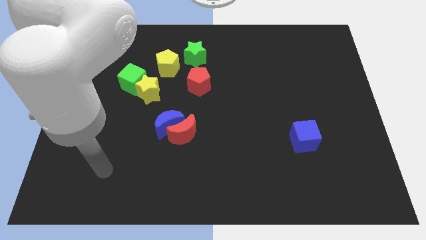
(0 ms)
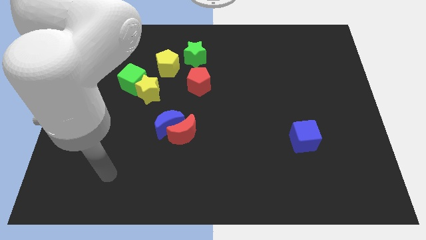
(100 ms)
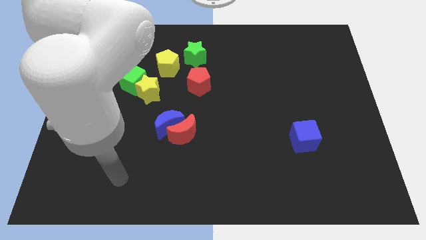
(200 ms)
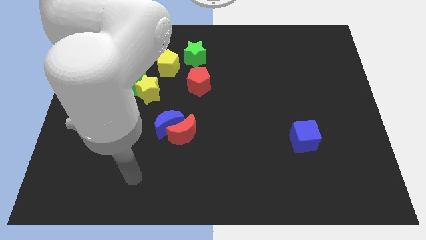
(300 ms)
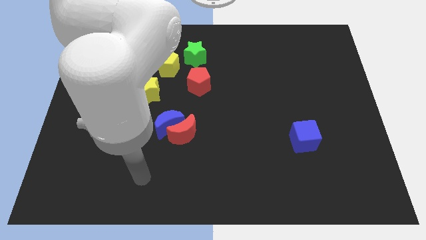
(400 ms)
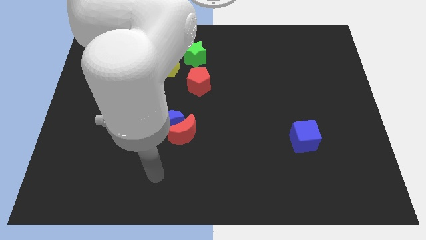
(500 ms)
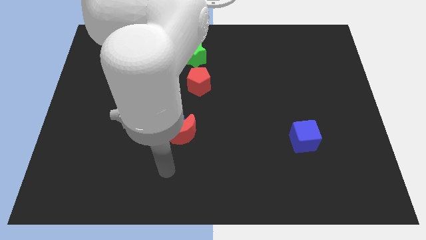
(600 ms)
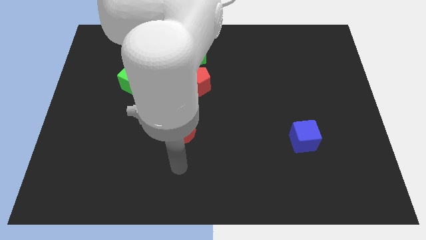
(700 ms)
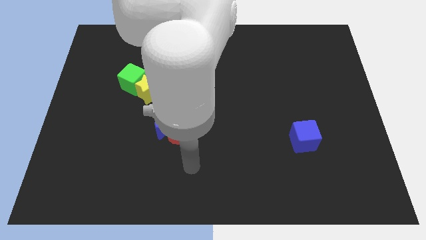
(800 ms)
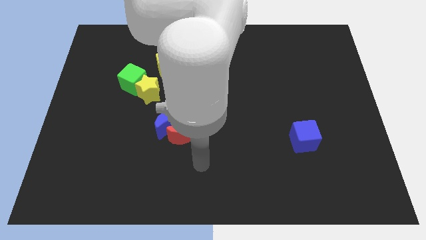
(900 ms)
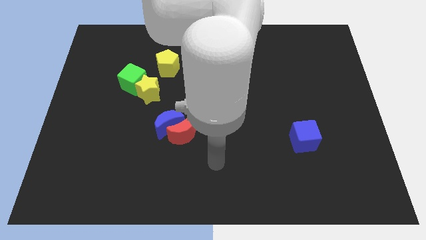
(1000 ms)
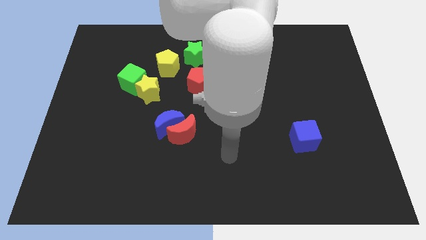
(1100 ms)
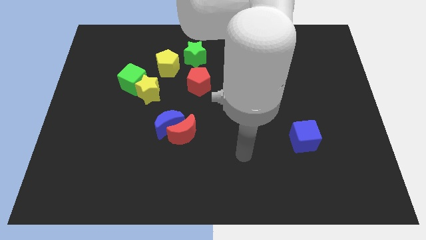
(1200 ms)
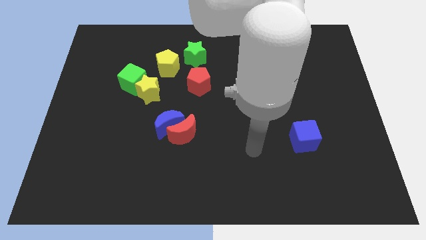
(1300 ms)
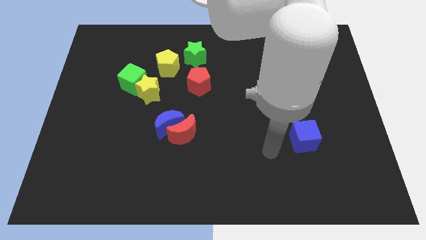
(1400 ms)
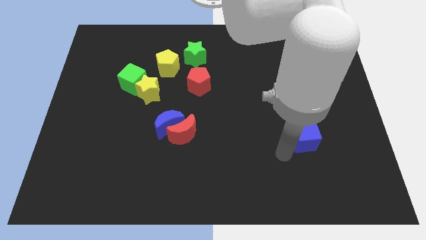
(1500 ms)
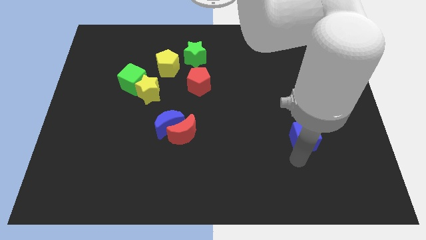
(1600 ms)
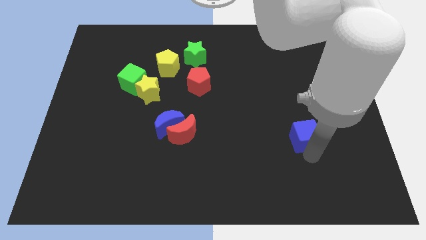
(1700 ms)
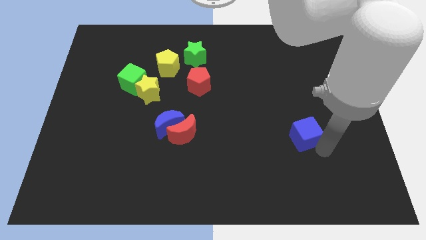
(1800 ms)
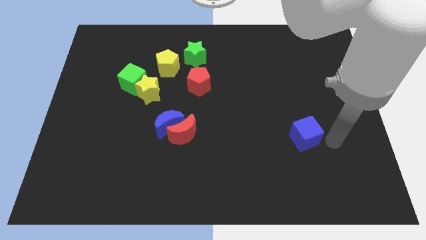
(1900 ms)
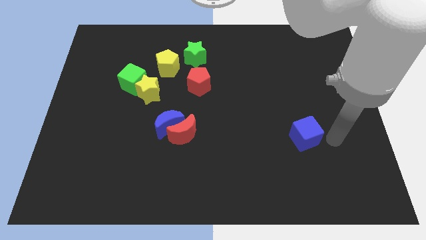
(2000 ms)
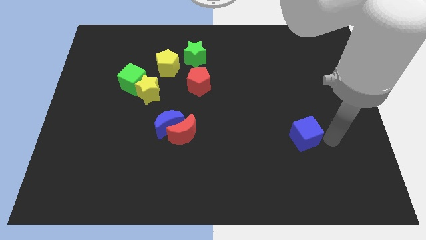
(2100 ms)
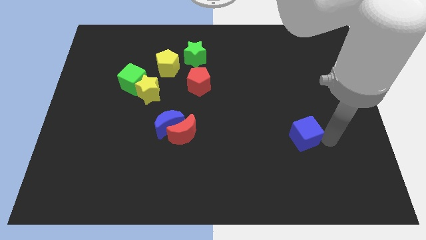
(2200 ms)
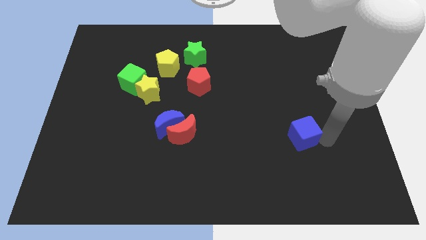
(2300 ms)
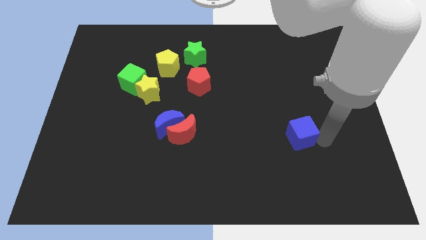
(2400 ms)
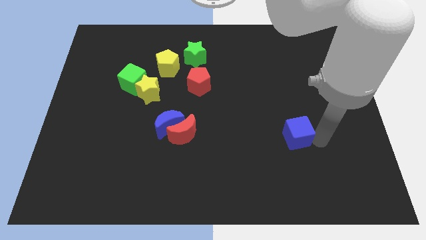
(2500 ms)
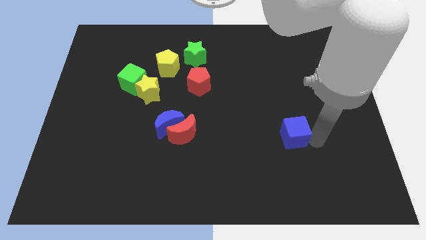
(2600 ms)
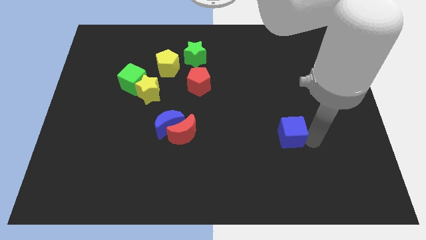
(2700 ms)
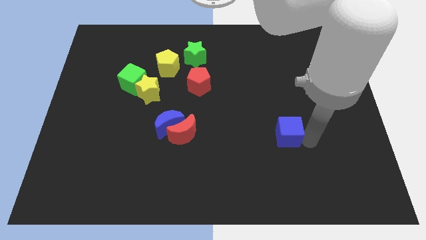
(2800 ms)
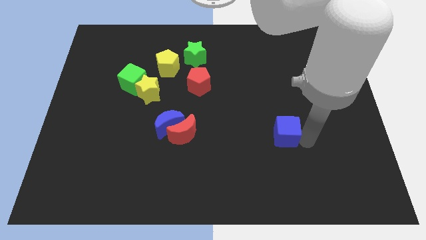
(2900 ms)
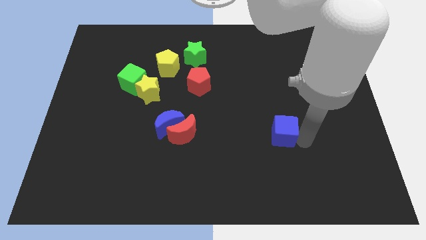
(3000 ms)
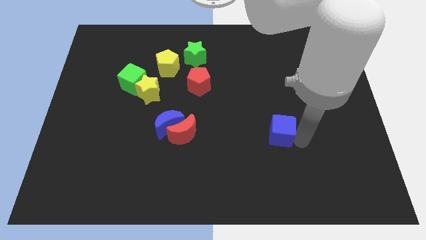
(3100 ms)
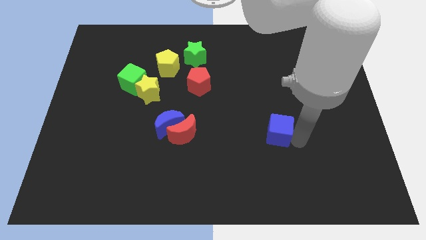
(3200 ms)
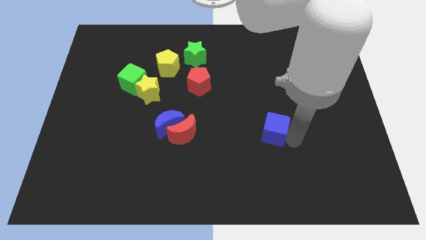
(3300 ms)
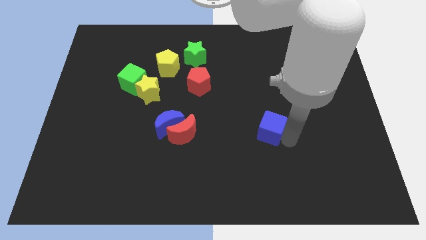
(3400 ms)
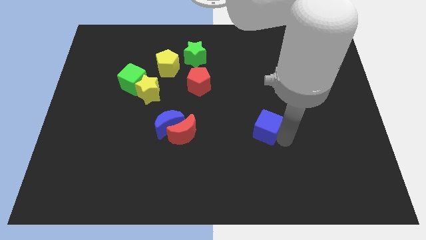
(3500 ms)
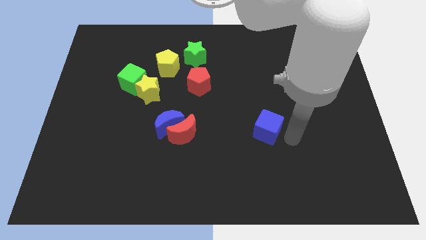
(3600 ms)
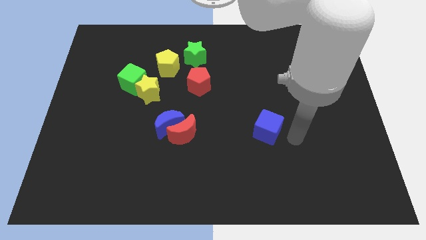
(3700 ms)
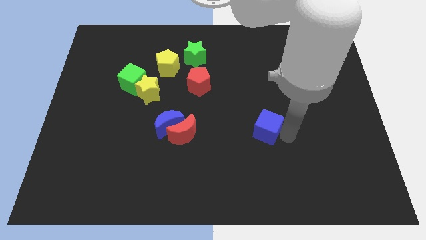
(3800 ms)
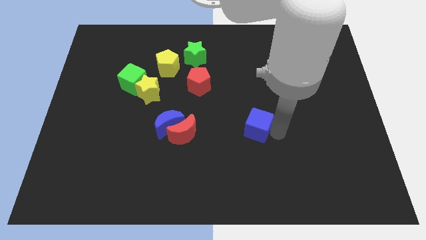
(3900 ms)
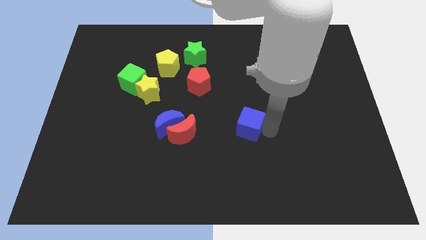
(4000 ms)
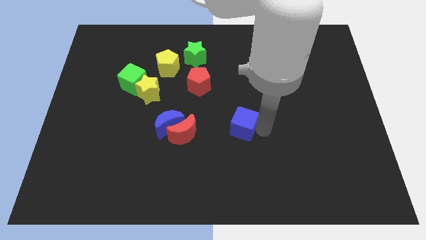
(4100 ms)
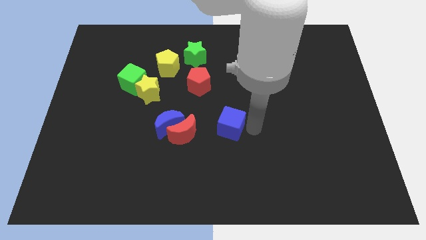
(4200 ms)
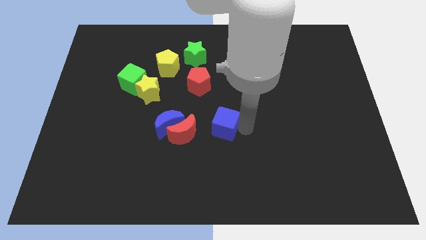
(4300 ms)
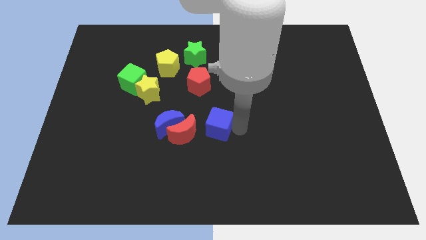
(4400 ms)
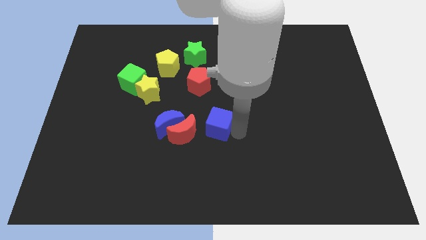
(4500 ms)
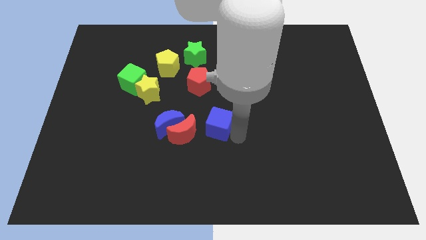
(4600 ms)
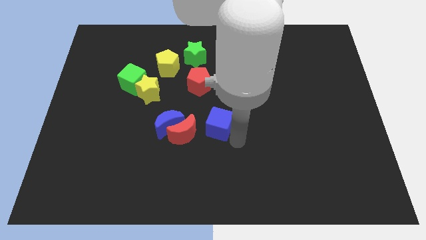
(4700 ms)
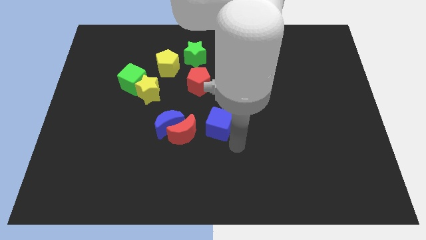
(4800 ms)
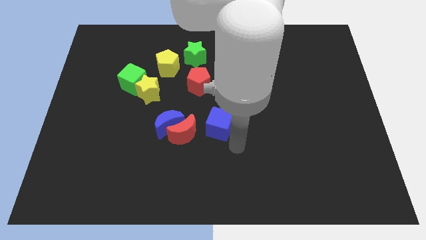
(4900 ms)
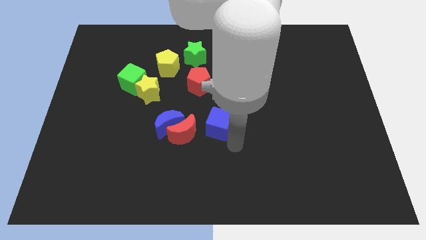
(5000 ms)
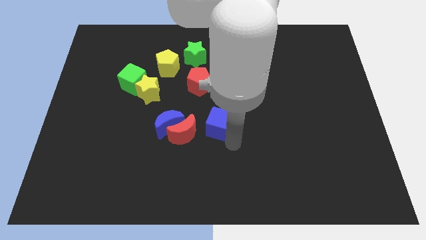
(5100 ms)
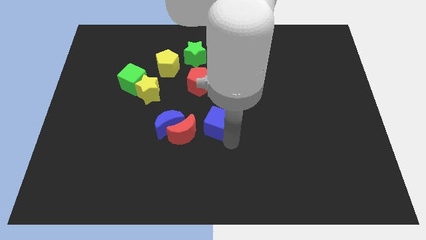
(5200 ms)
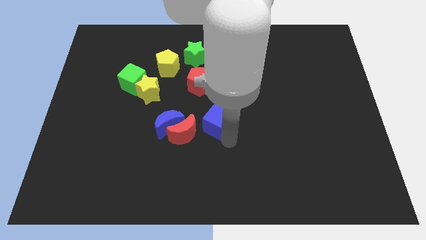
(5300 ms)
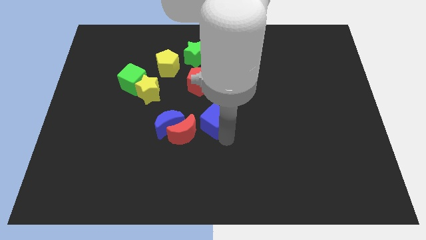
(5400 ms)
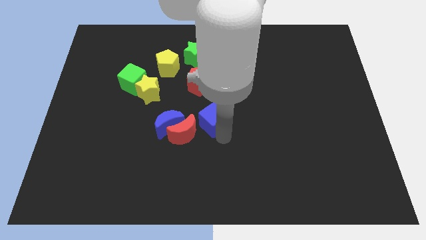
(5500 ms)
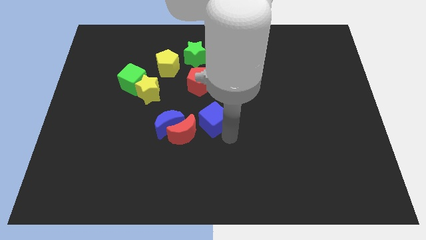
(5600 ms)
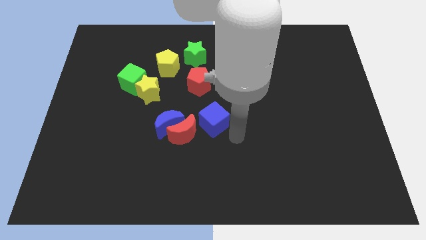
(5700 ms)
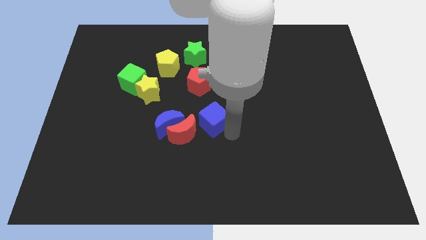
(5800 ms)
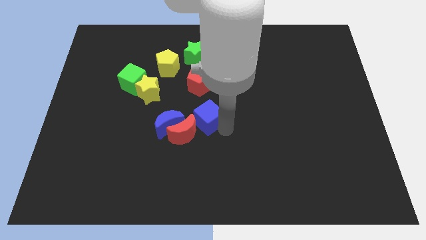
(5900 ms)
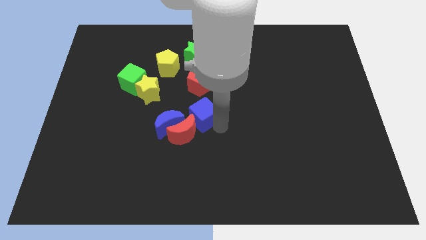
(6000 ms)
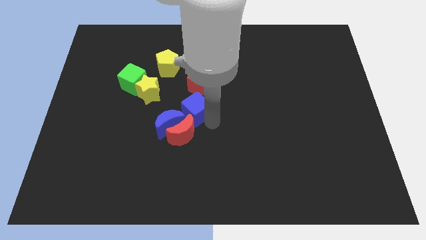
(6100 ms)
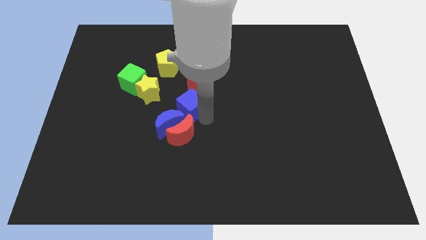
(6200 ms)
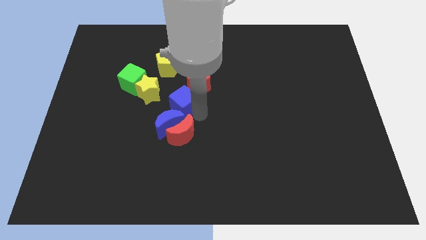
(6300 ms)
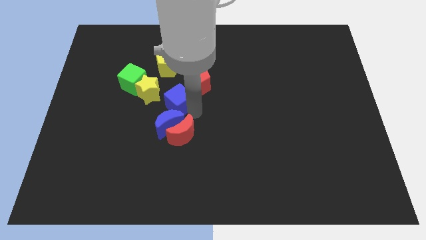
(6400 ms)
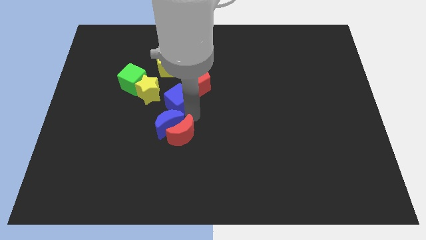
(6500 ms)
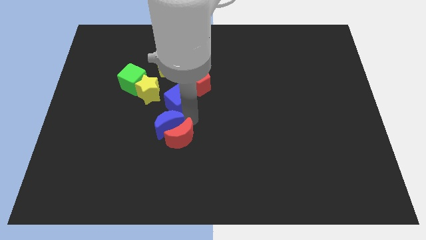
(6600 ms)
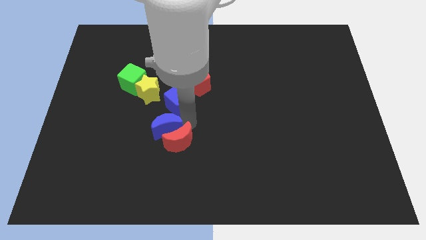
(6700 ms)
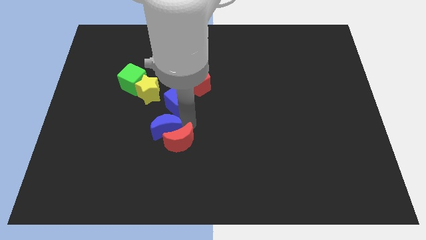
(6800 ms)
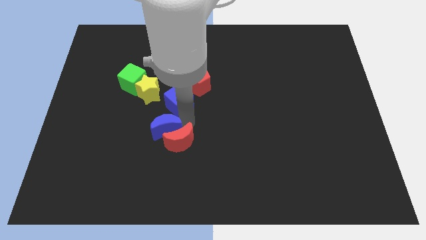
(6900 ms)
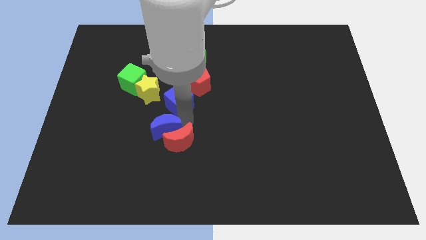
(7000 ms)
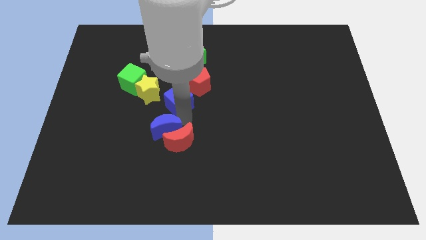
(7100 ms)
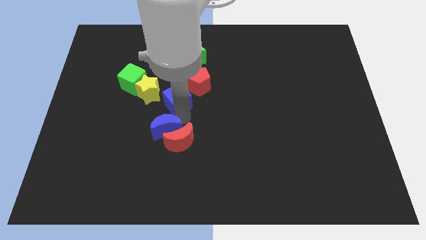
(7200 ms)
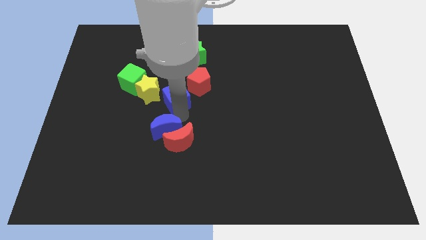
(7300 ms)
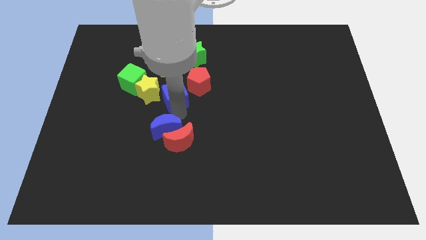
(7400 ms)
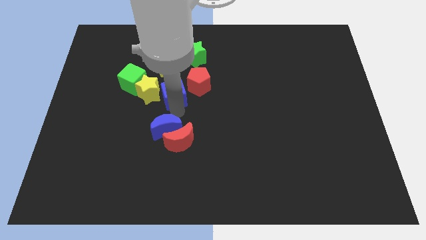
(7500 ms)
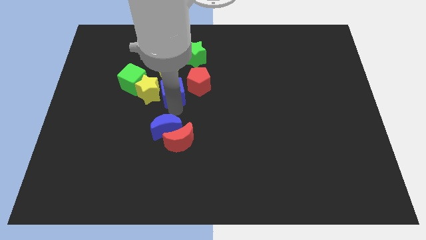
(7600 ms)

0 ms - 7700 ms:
move the blue cube to the top right of the yellow star
